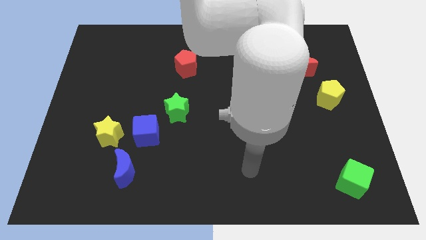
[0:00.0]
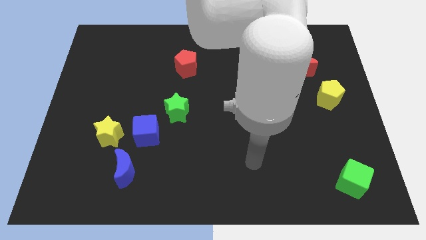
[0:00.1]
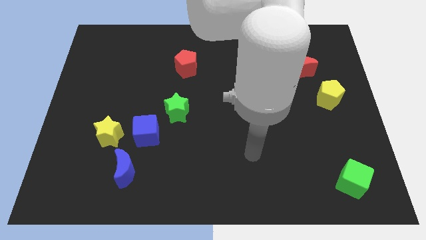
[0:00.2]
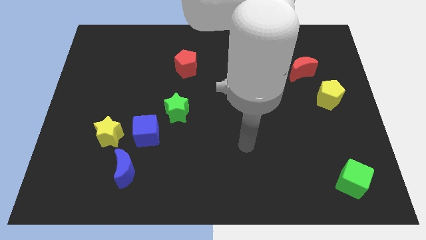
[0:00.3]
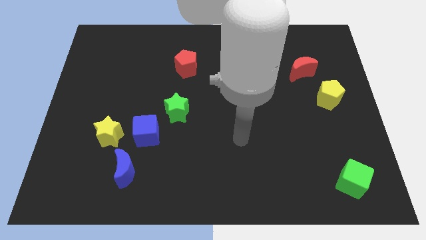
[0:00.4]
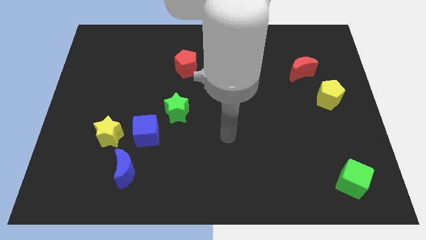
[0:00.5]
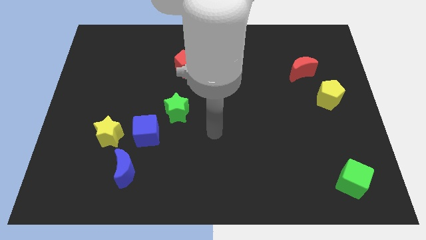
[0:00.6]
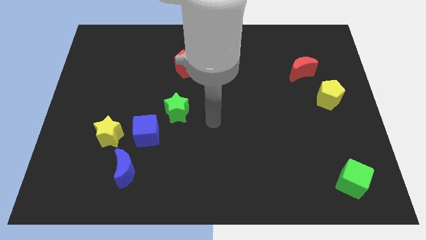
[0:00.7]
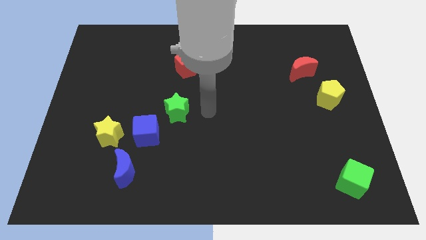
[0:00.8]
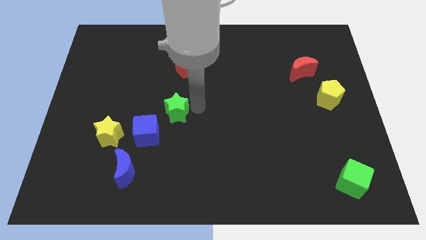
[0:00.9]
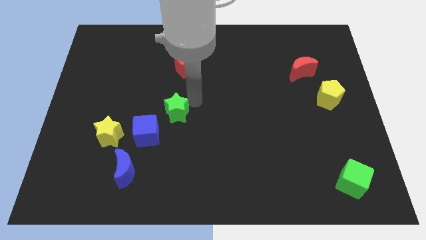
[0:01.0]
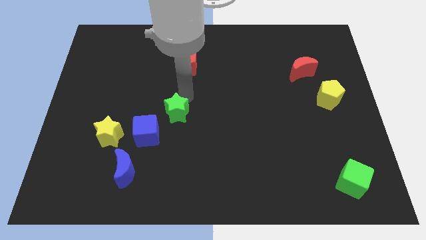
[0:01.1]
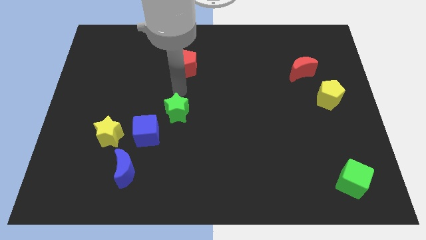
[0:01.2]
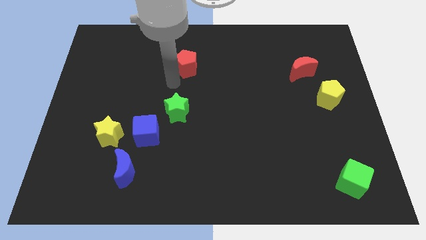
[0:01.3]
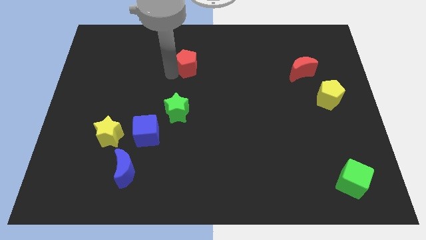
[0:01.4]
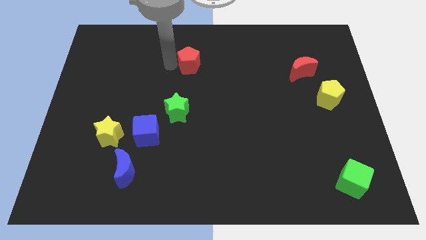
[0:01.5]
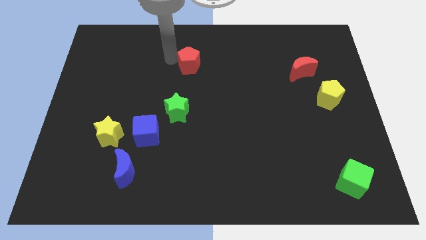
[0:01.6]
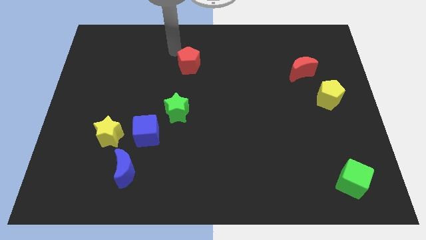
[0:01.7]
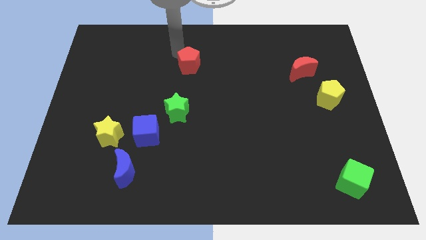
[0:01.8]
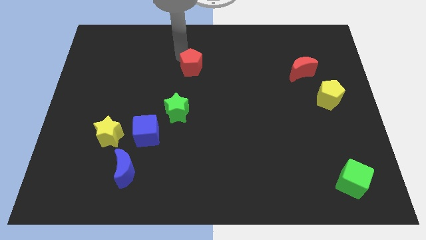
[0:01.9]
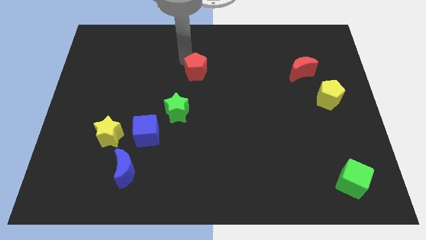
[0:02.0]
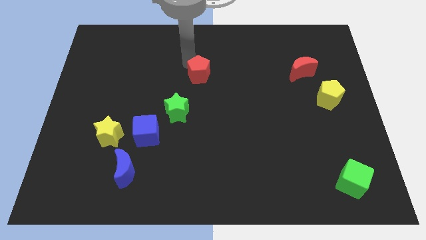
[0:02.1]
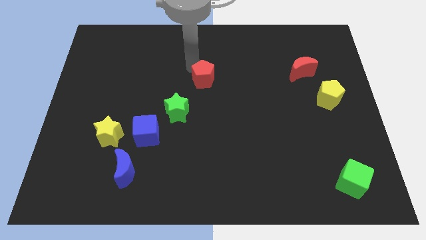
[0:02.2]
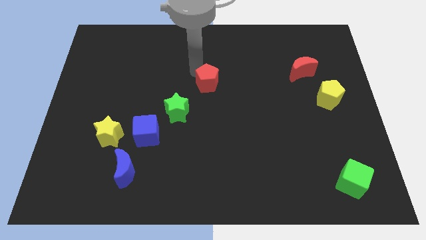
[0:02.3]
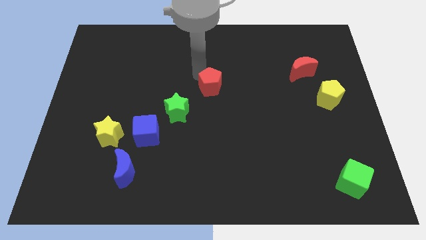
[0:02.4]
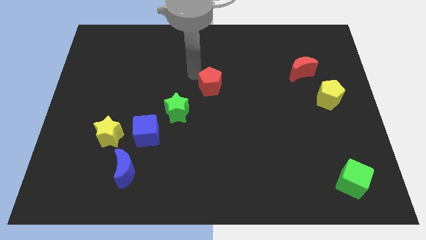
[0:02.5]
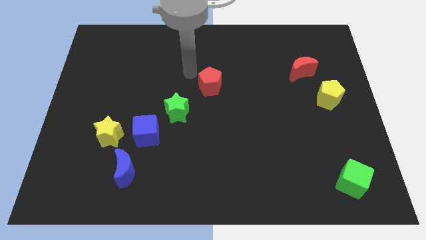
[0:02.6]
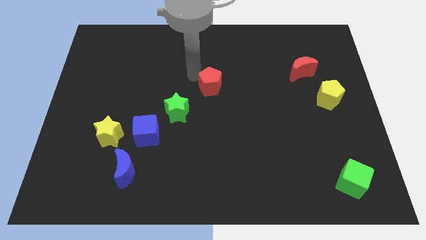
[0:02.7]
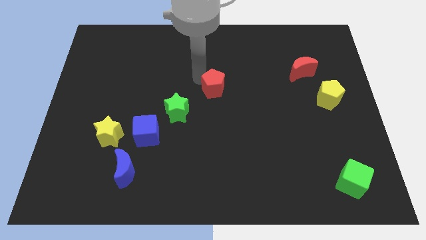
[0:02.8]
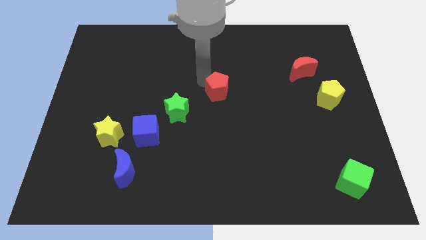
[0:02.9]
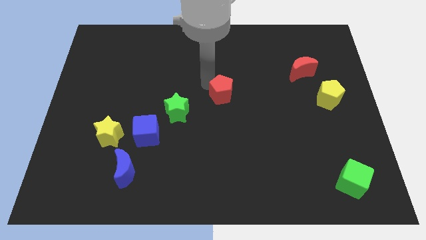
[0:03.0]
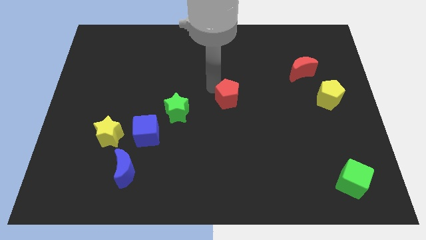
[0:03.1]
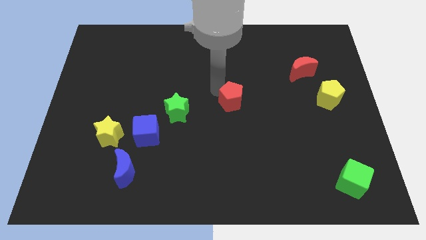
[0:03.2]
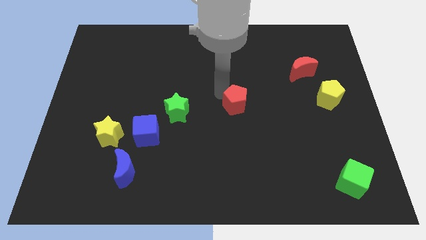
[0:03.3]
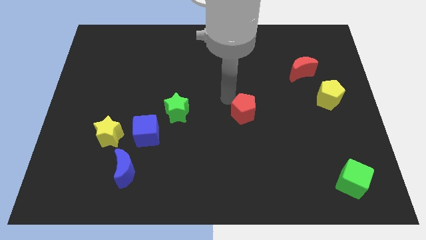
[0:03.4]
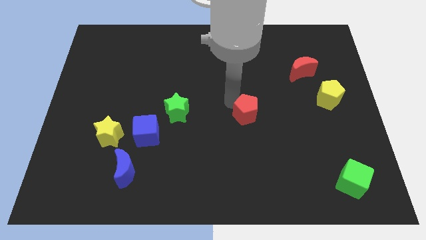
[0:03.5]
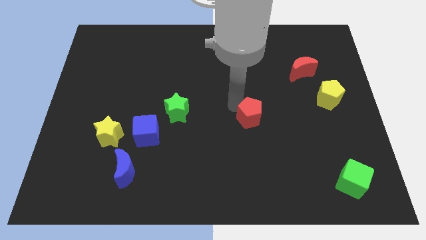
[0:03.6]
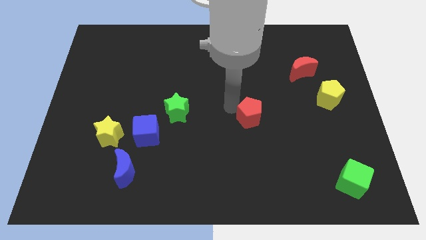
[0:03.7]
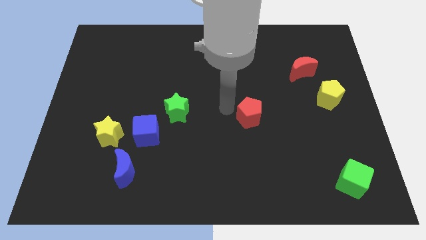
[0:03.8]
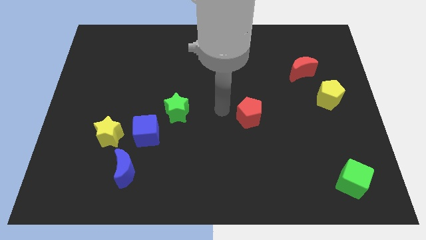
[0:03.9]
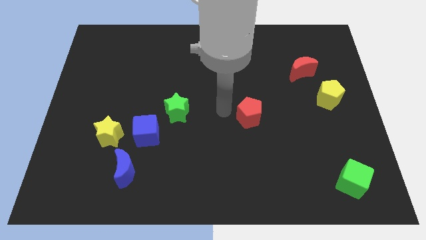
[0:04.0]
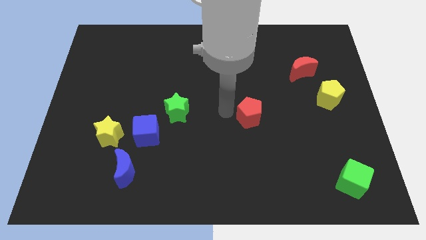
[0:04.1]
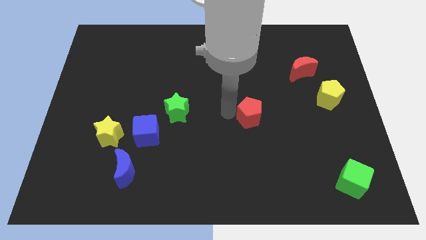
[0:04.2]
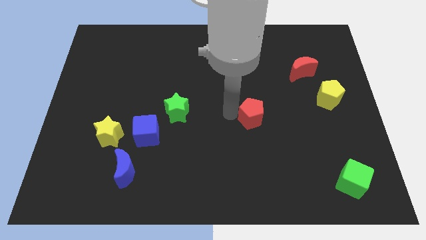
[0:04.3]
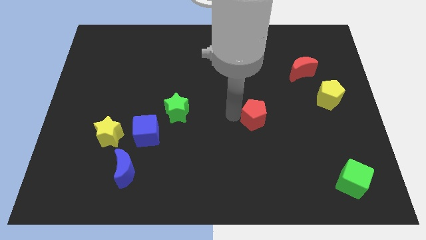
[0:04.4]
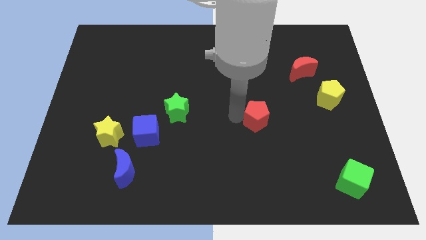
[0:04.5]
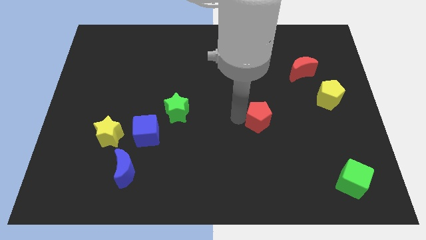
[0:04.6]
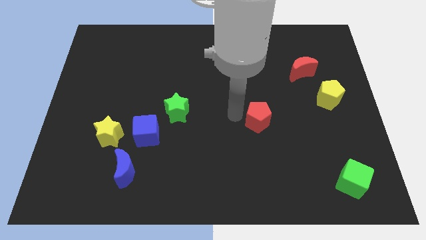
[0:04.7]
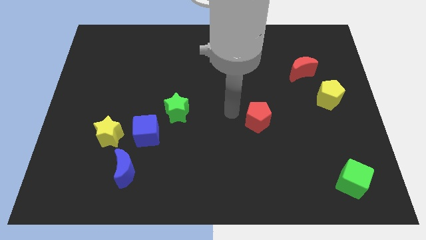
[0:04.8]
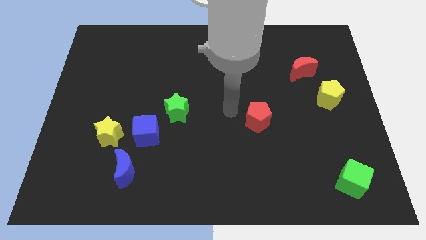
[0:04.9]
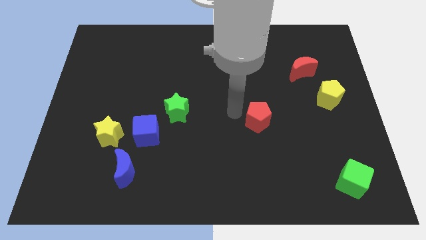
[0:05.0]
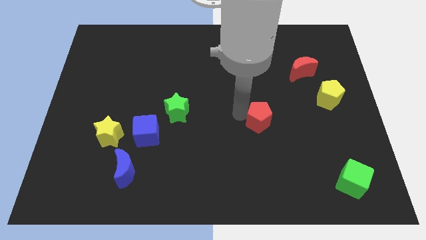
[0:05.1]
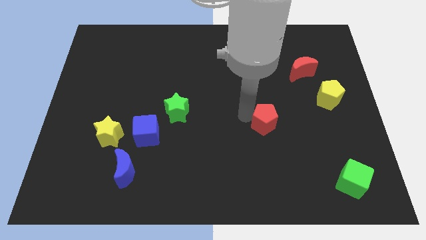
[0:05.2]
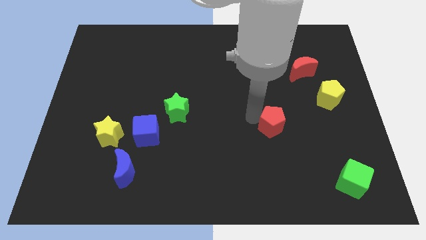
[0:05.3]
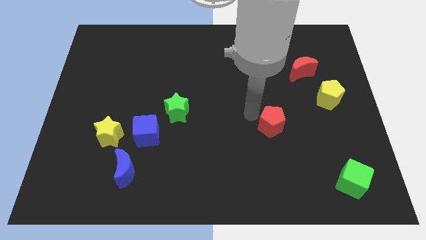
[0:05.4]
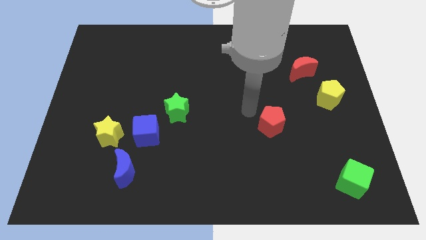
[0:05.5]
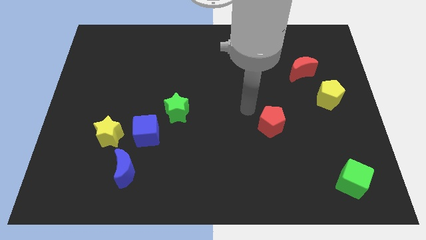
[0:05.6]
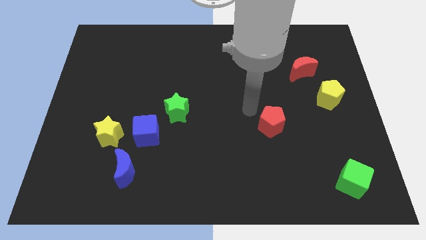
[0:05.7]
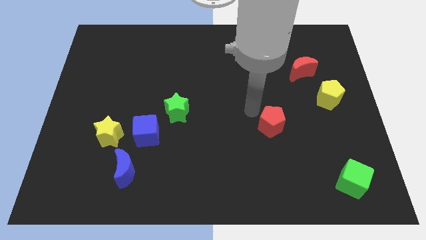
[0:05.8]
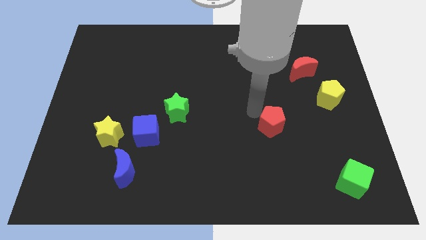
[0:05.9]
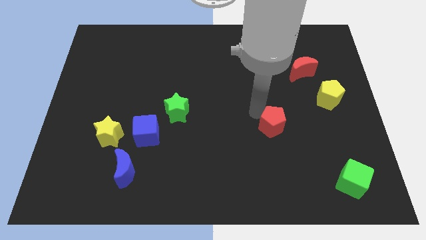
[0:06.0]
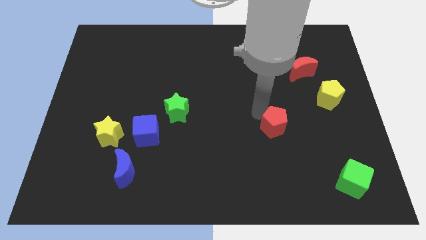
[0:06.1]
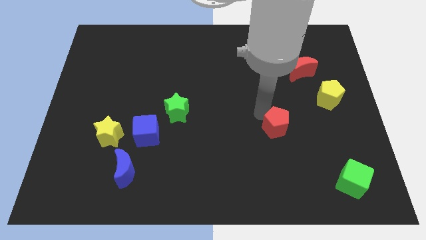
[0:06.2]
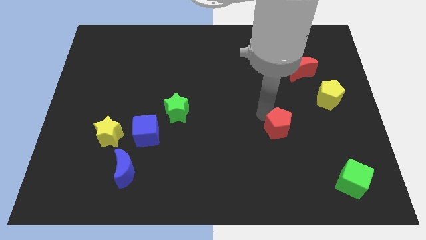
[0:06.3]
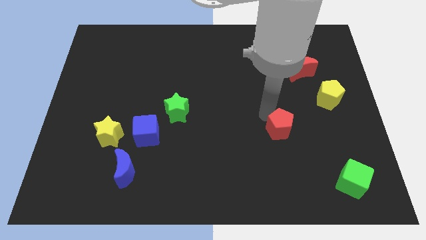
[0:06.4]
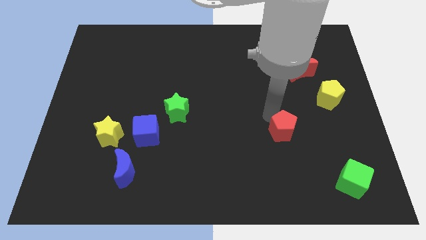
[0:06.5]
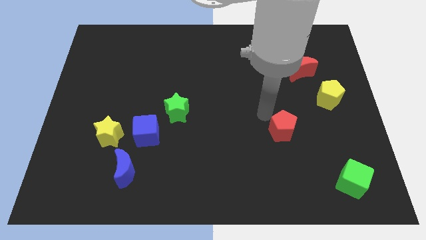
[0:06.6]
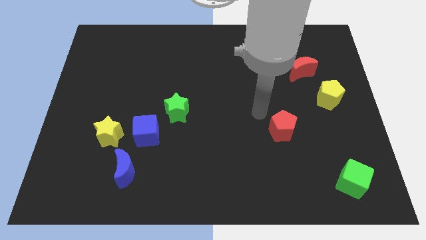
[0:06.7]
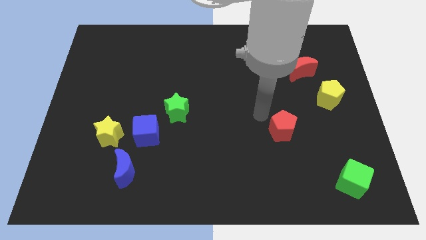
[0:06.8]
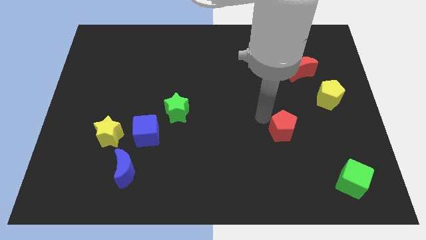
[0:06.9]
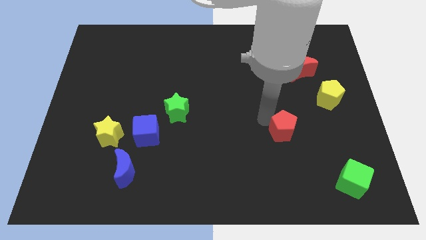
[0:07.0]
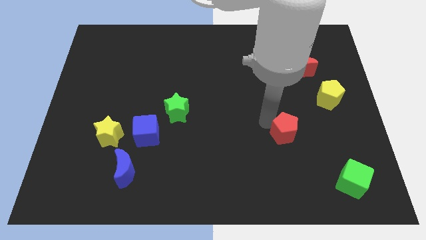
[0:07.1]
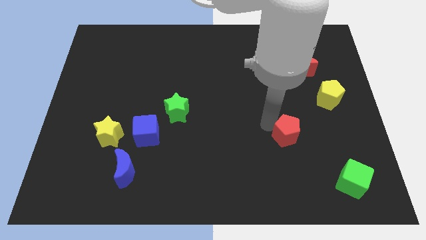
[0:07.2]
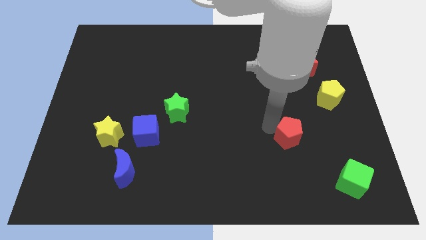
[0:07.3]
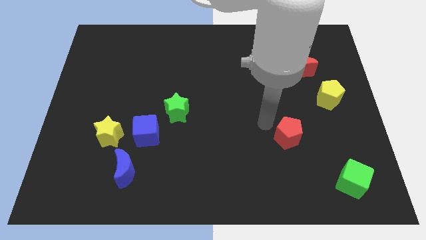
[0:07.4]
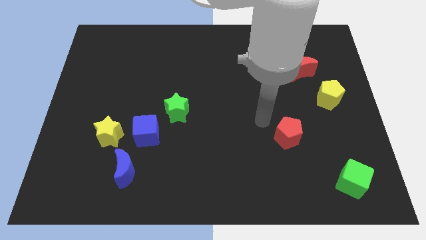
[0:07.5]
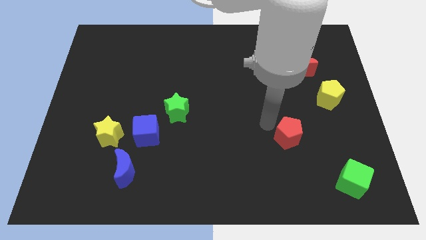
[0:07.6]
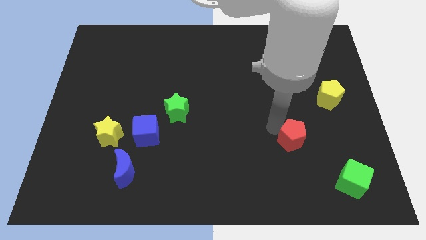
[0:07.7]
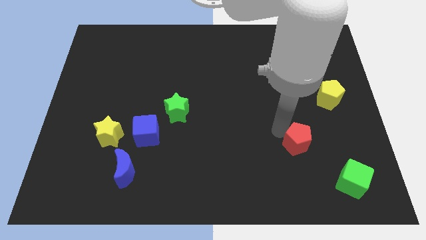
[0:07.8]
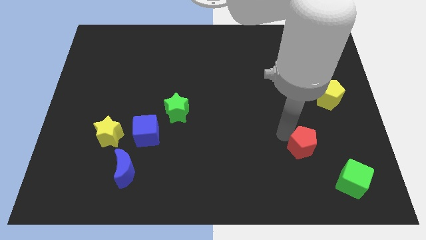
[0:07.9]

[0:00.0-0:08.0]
push the red pentagon diagonally up and to the left of the green cube
